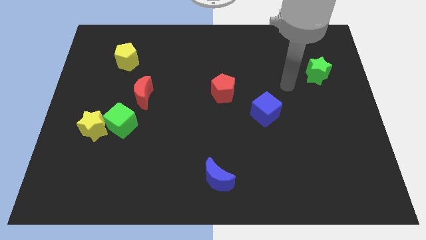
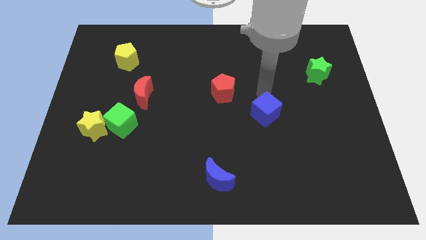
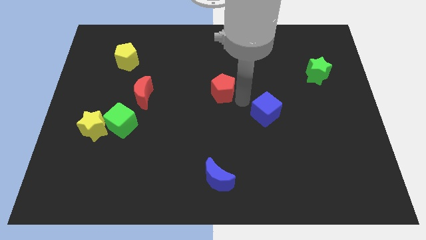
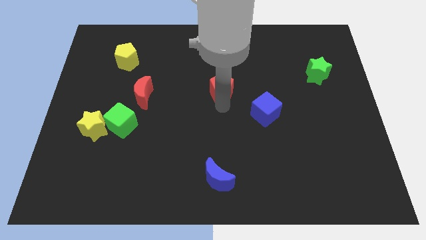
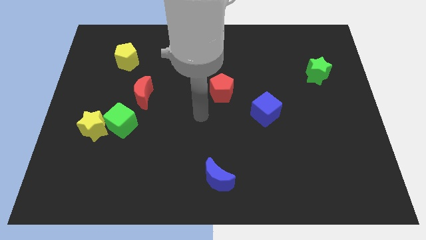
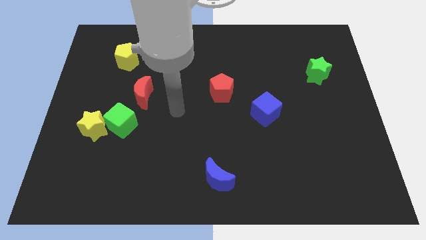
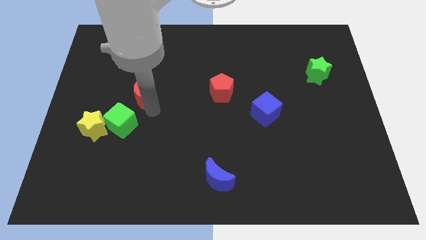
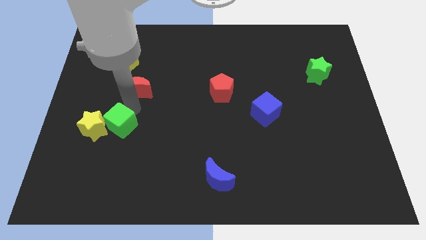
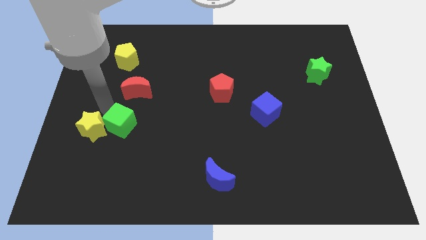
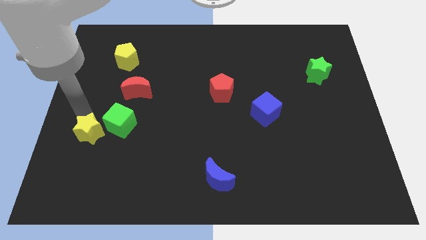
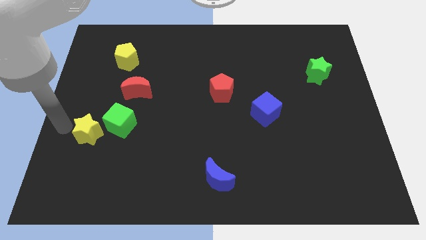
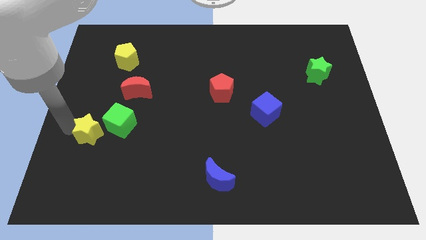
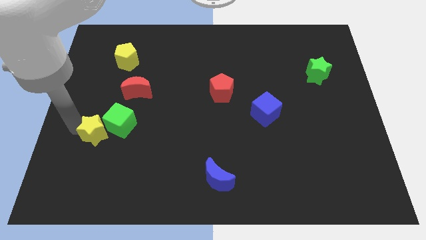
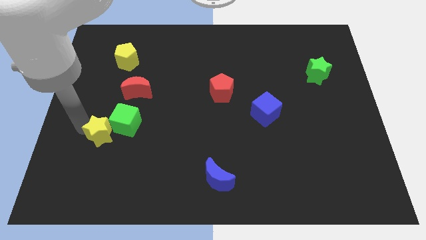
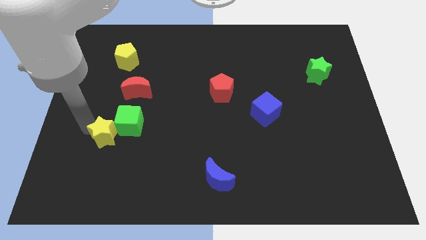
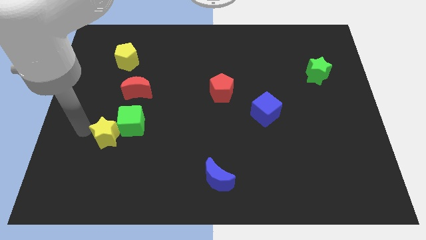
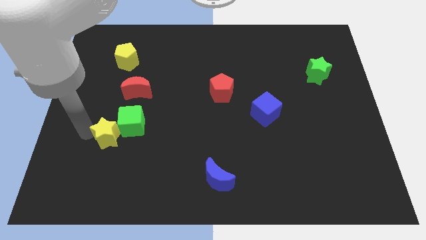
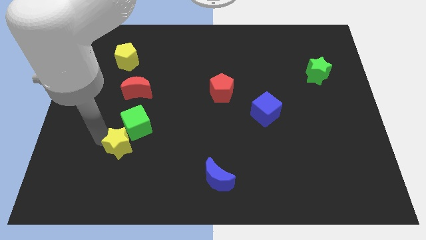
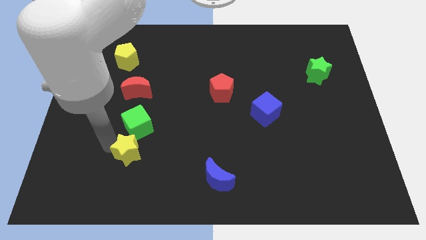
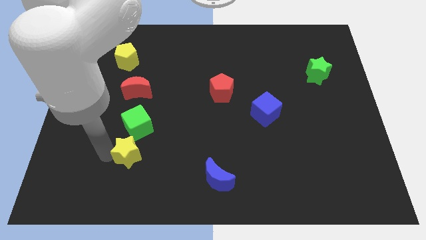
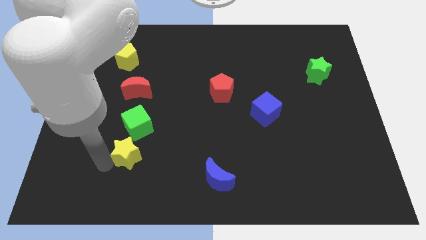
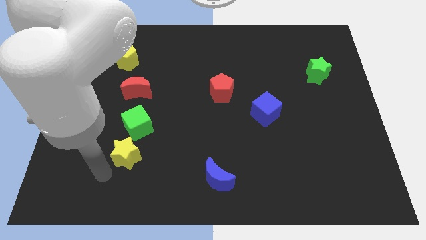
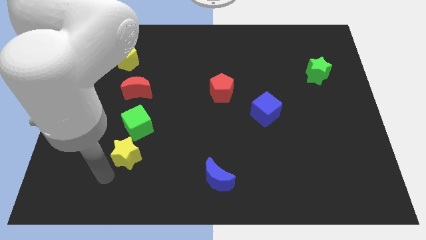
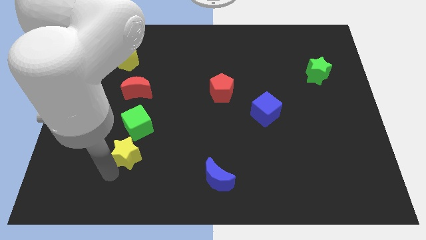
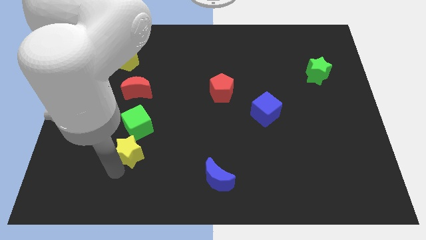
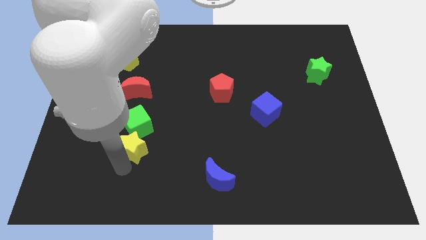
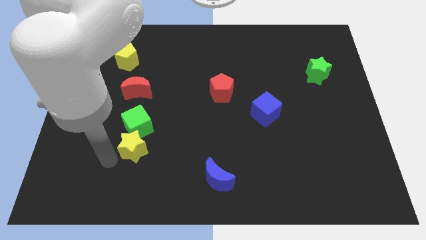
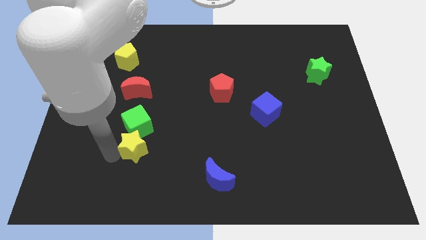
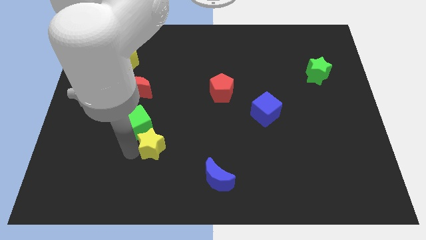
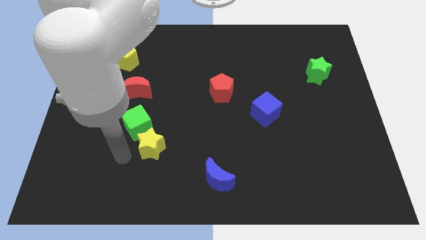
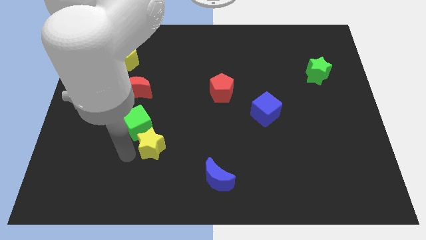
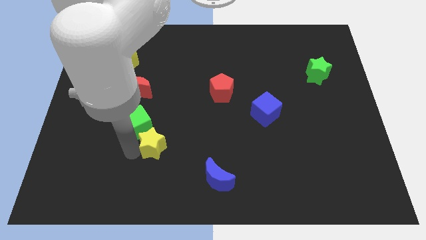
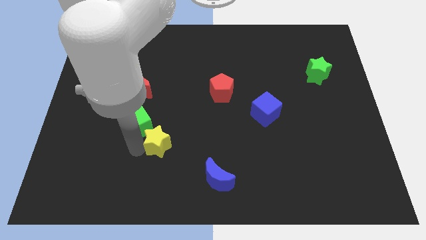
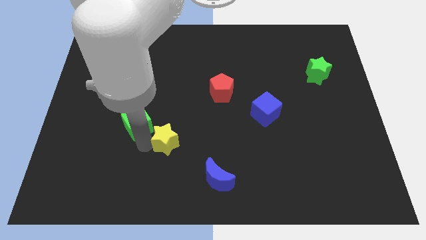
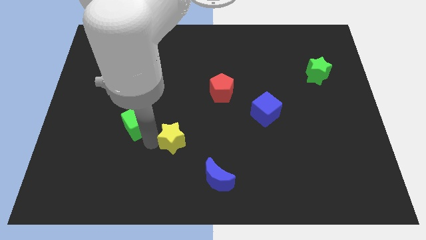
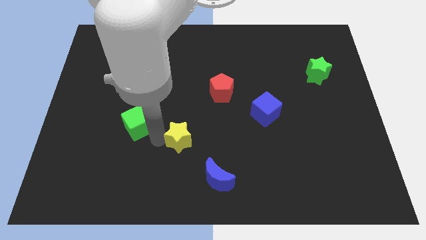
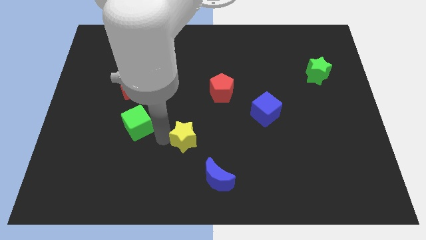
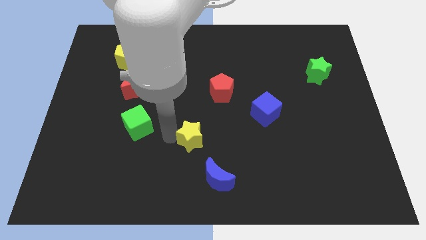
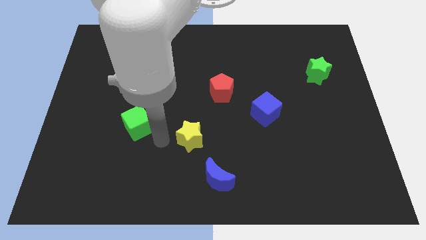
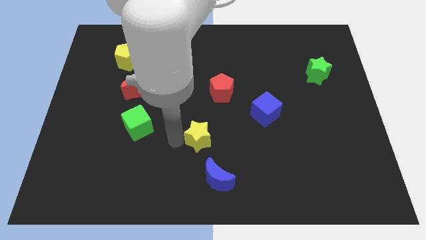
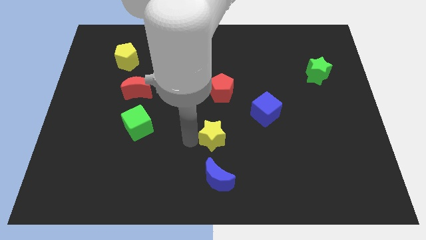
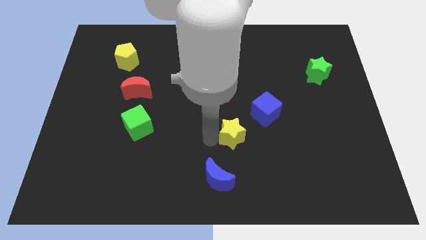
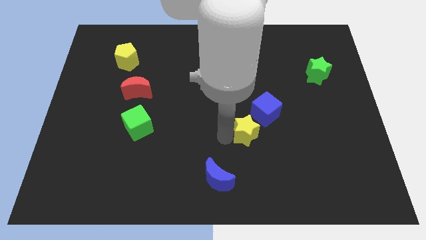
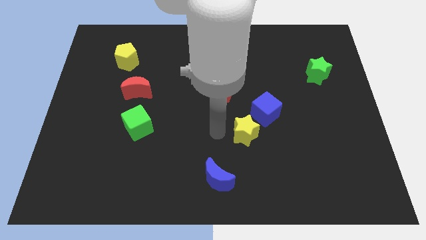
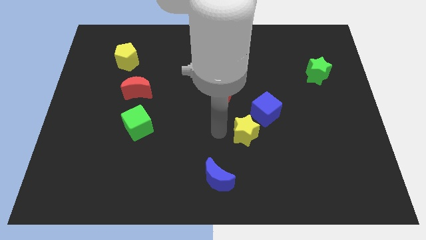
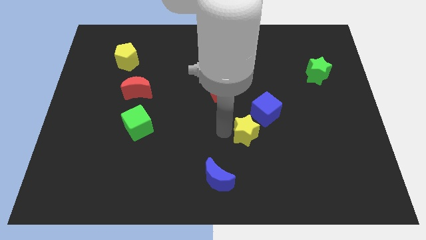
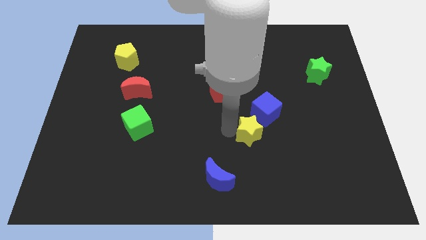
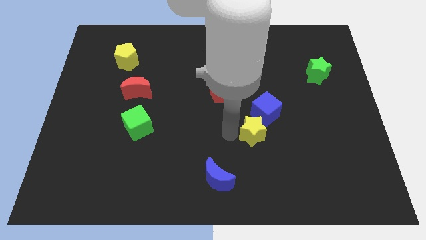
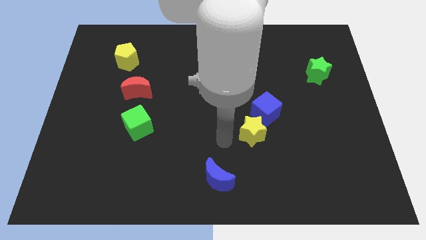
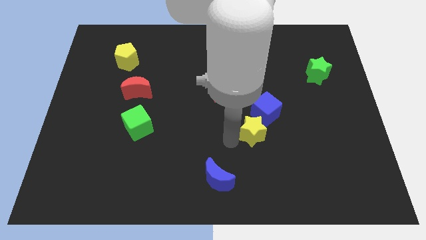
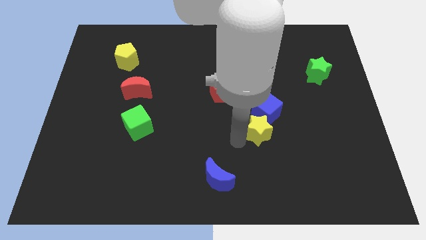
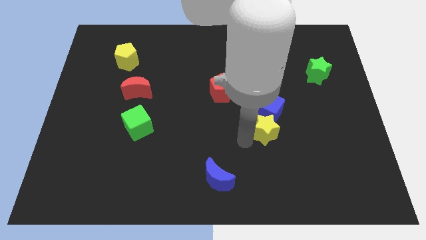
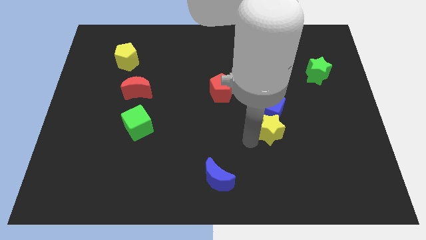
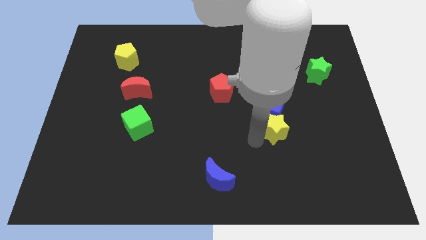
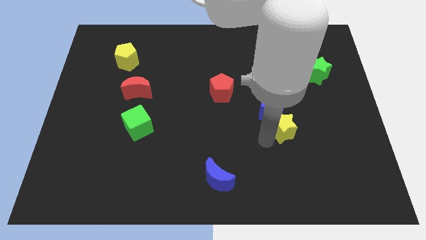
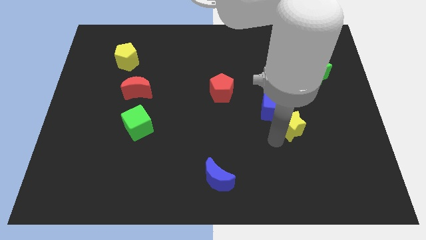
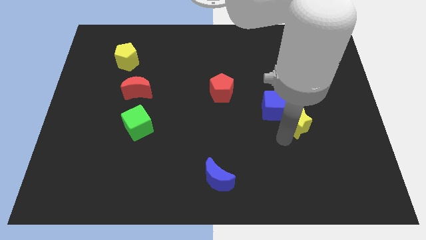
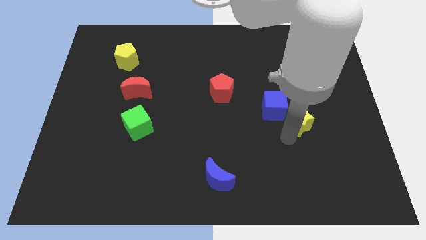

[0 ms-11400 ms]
put the yellow star just right of the blue cube
